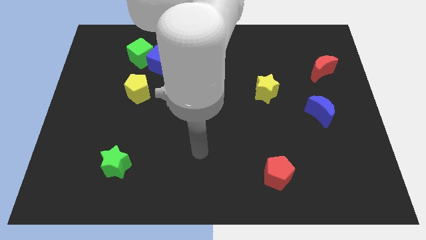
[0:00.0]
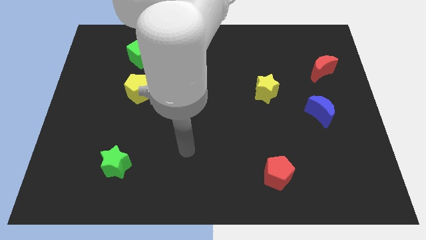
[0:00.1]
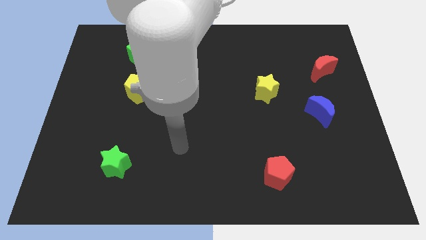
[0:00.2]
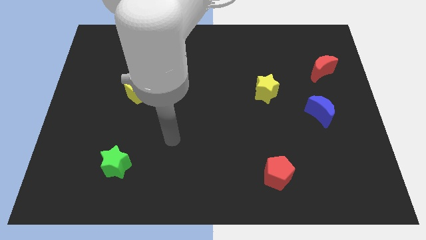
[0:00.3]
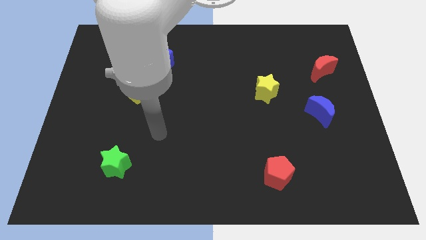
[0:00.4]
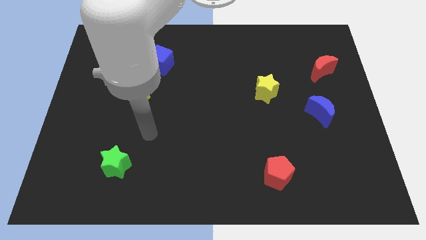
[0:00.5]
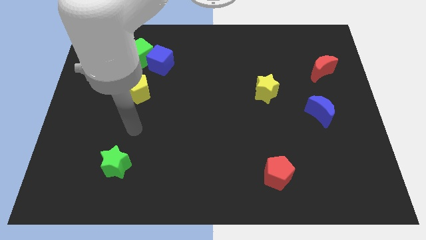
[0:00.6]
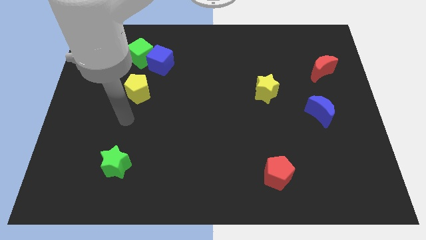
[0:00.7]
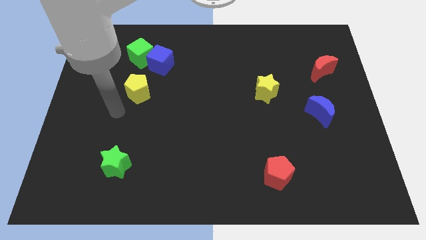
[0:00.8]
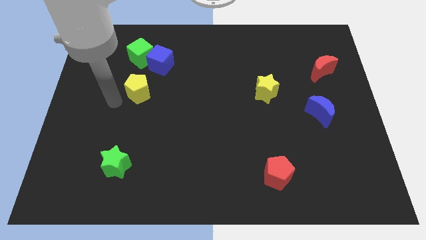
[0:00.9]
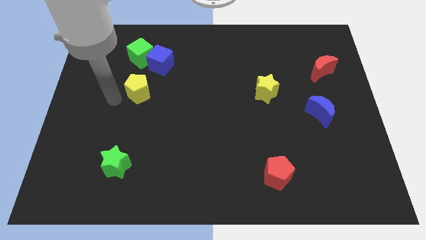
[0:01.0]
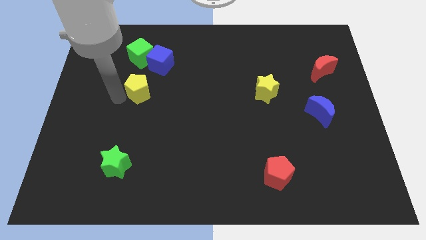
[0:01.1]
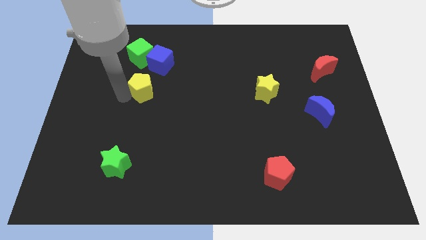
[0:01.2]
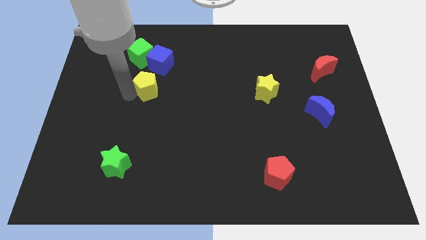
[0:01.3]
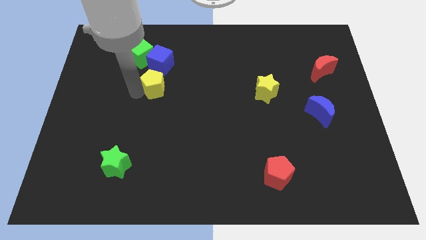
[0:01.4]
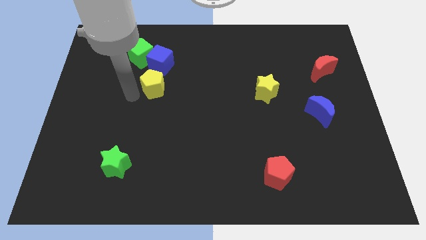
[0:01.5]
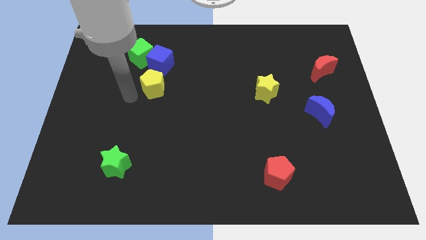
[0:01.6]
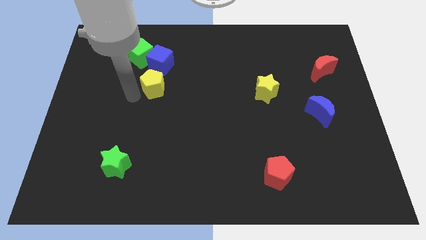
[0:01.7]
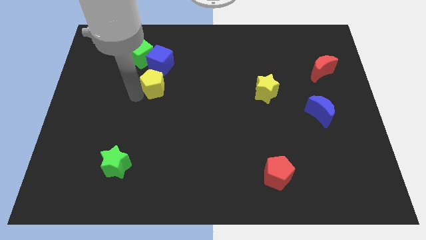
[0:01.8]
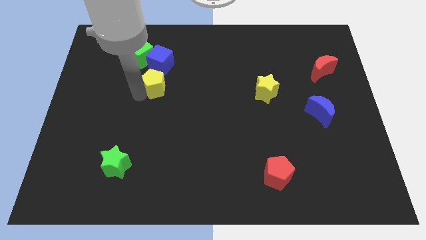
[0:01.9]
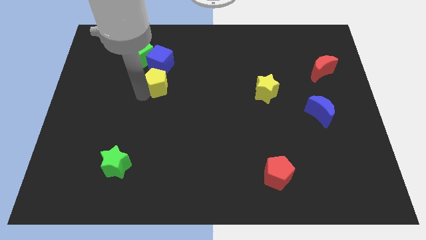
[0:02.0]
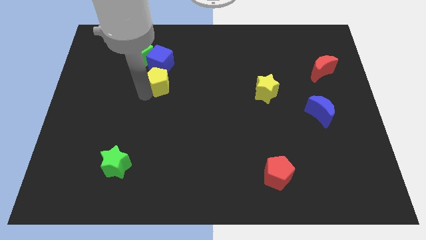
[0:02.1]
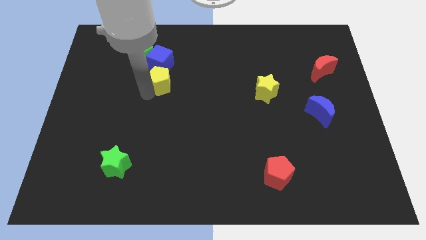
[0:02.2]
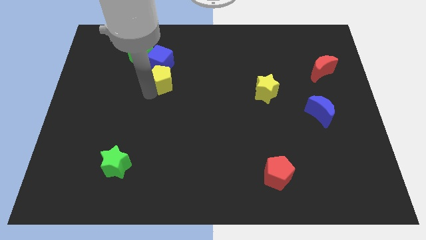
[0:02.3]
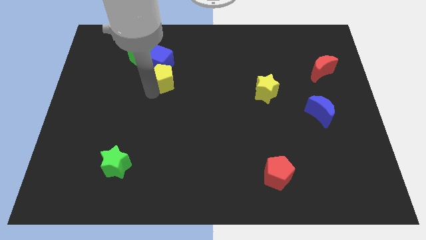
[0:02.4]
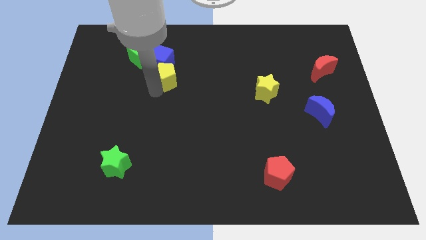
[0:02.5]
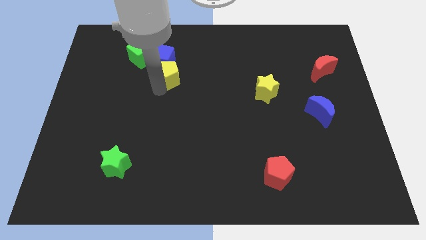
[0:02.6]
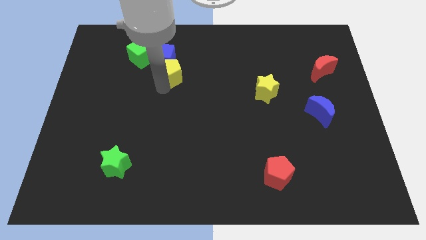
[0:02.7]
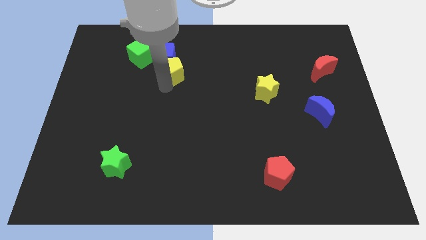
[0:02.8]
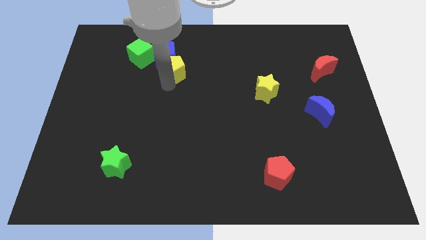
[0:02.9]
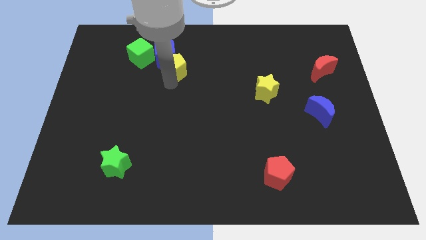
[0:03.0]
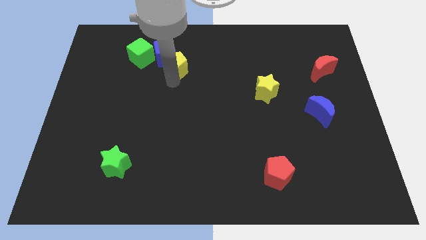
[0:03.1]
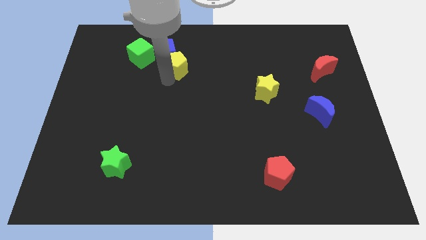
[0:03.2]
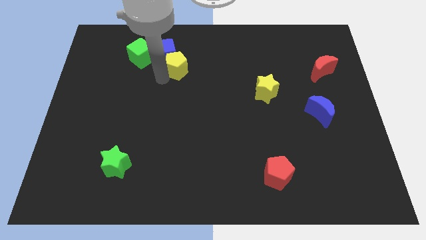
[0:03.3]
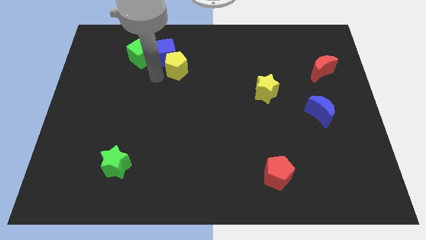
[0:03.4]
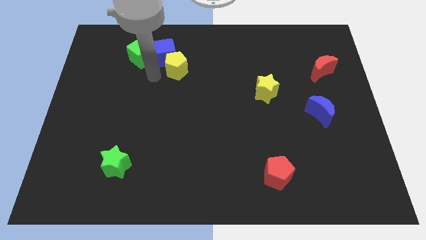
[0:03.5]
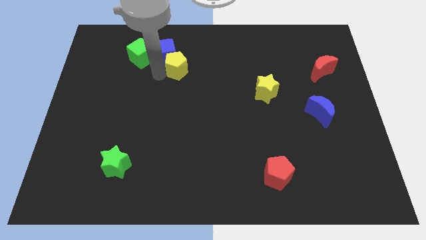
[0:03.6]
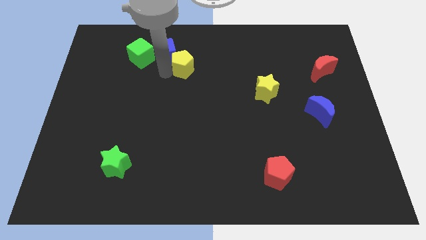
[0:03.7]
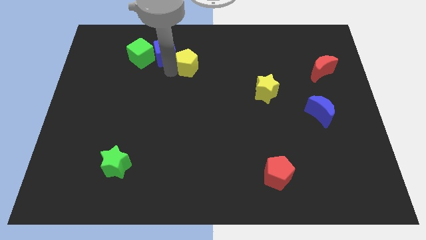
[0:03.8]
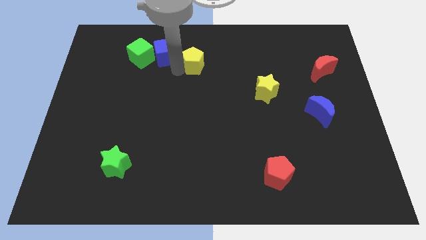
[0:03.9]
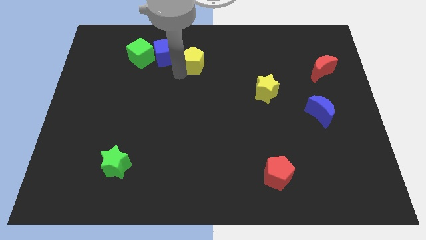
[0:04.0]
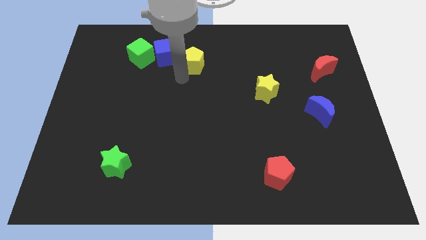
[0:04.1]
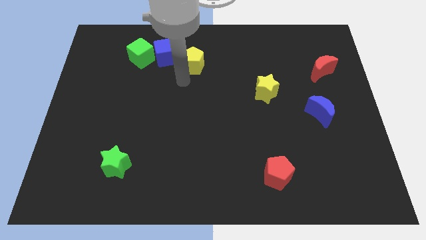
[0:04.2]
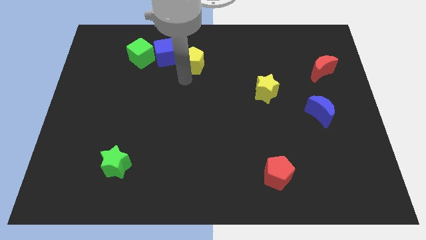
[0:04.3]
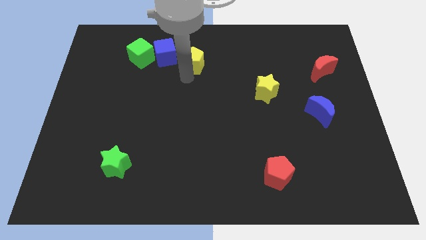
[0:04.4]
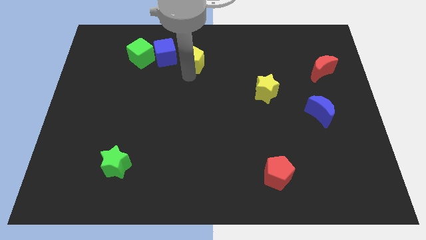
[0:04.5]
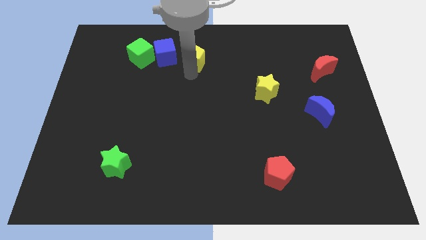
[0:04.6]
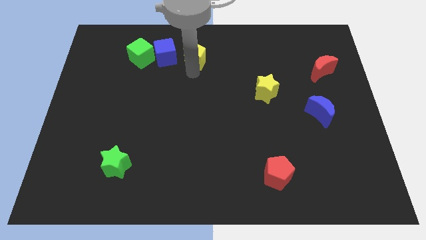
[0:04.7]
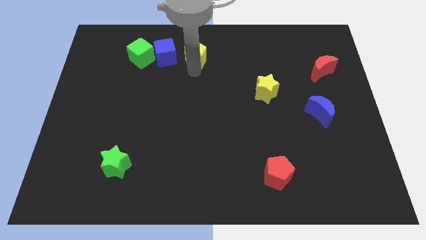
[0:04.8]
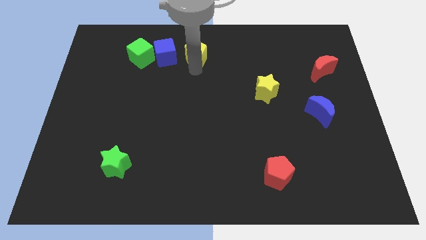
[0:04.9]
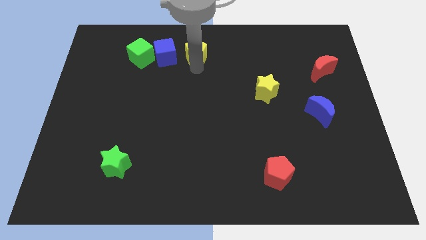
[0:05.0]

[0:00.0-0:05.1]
push the yellow pentagon to the top side

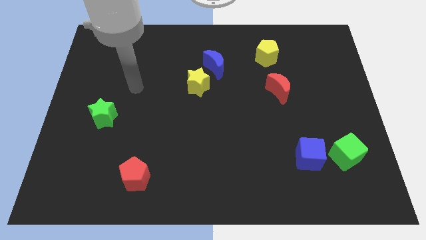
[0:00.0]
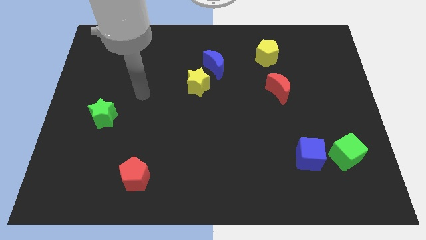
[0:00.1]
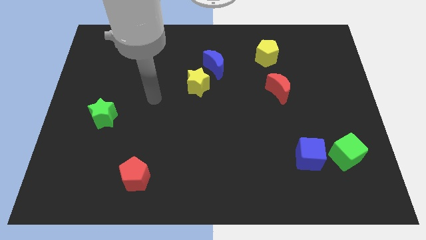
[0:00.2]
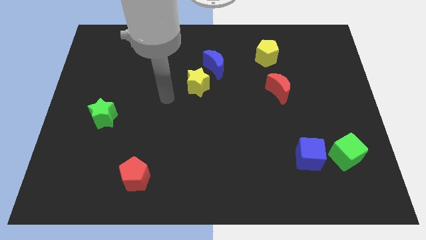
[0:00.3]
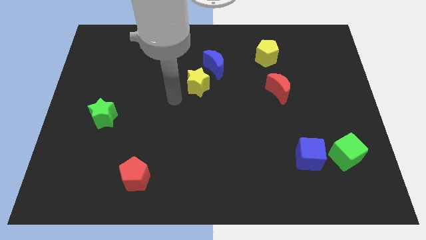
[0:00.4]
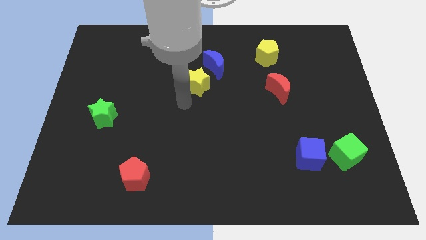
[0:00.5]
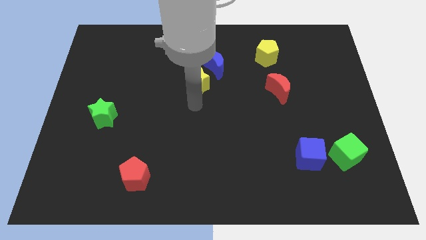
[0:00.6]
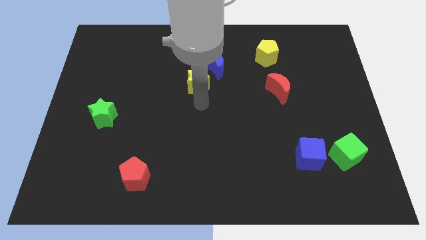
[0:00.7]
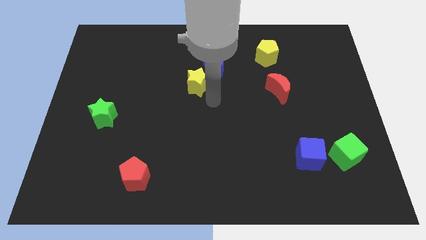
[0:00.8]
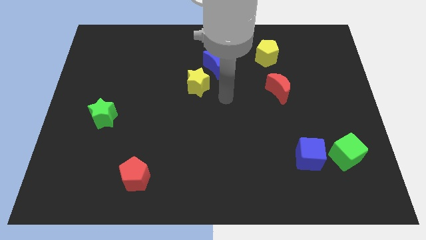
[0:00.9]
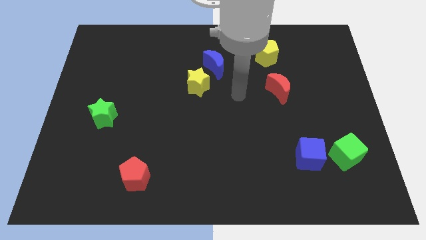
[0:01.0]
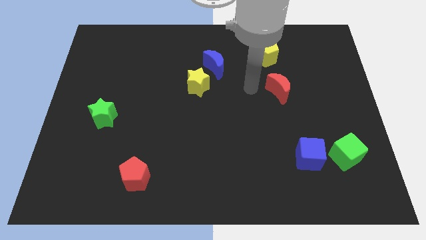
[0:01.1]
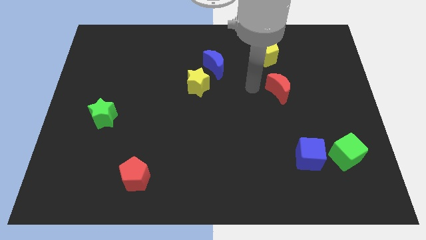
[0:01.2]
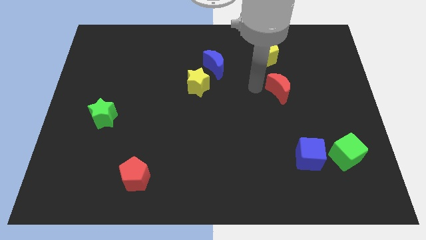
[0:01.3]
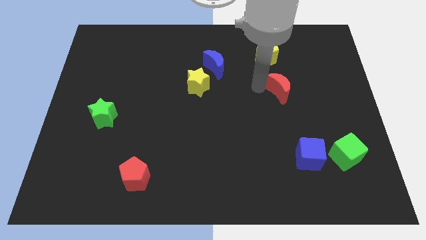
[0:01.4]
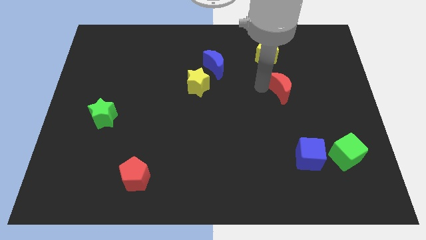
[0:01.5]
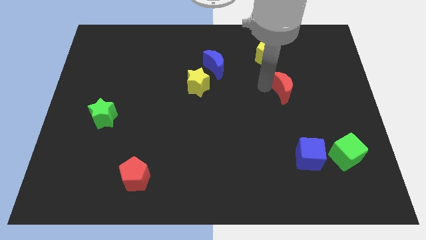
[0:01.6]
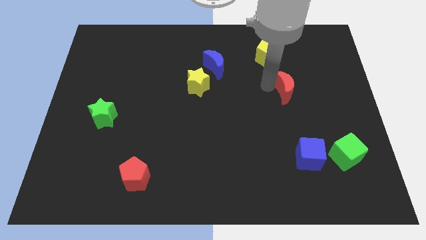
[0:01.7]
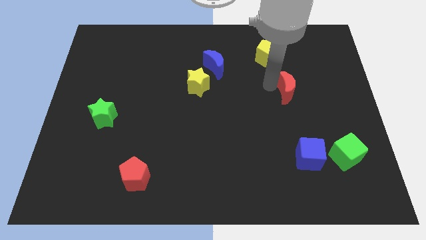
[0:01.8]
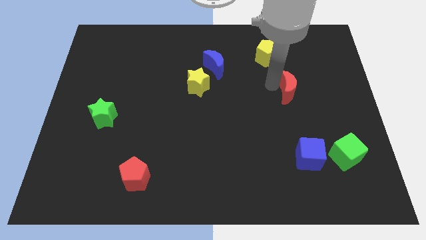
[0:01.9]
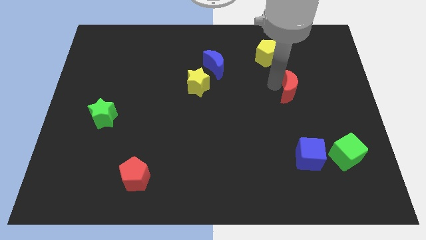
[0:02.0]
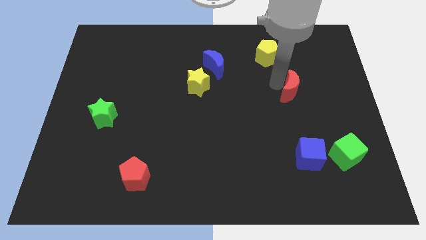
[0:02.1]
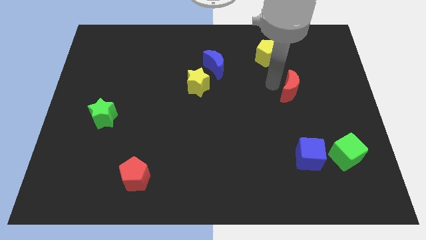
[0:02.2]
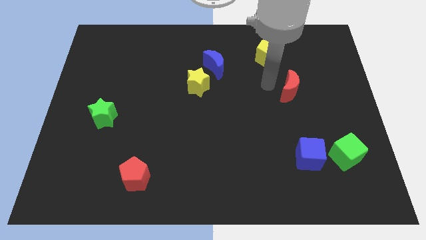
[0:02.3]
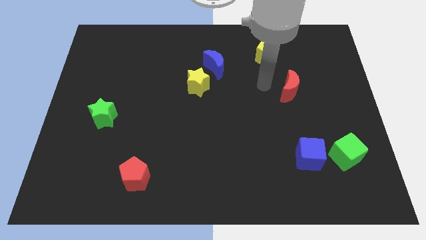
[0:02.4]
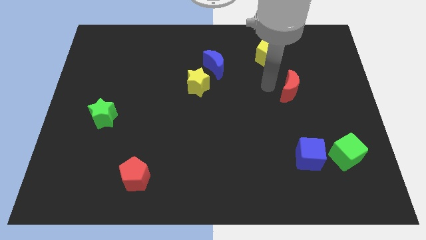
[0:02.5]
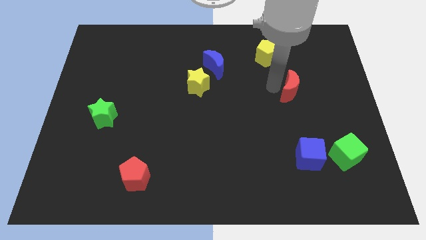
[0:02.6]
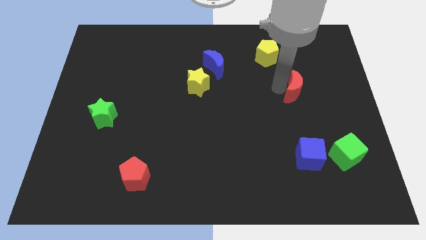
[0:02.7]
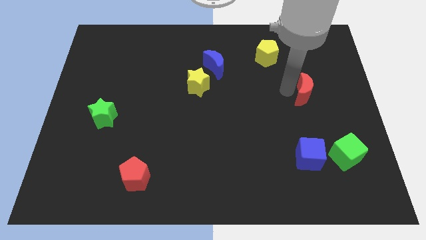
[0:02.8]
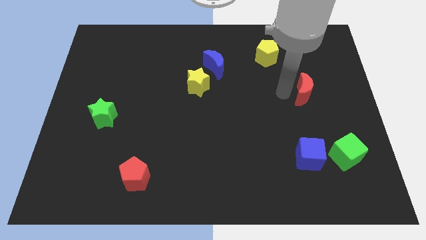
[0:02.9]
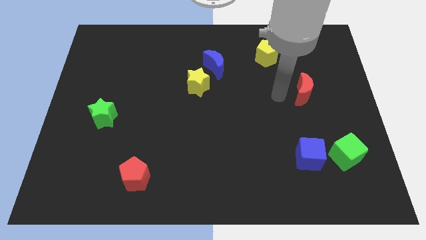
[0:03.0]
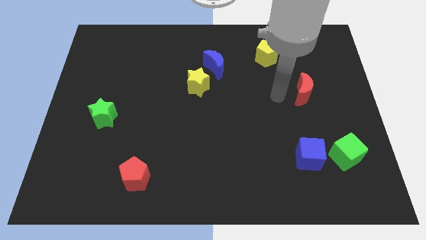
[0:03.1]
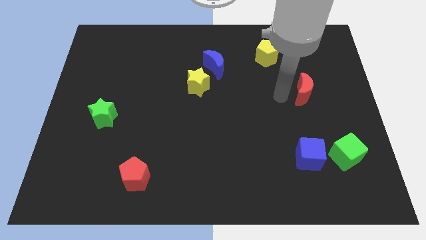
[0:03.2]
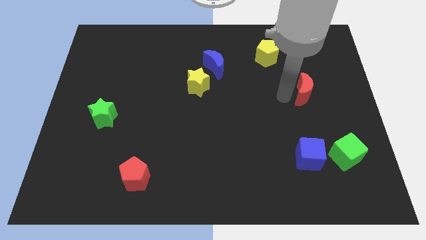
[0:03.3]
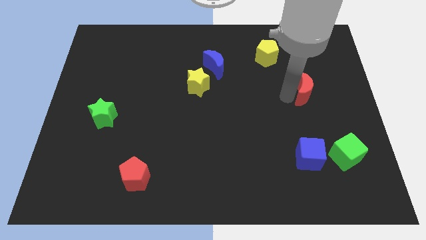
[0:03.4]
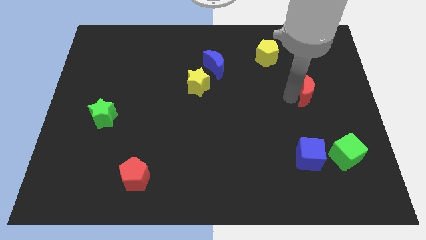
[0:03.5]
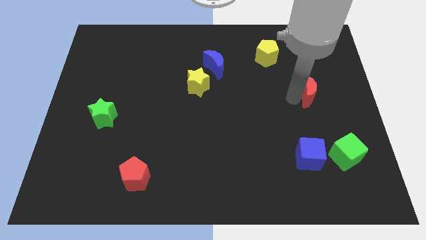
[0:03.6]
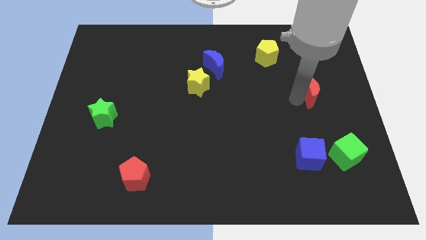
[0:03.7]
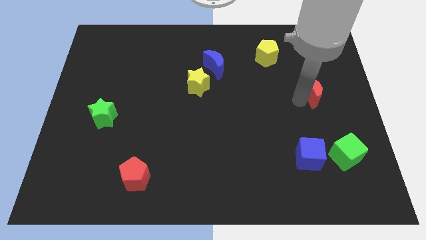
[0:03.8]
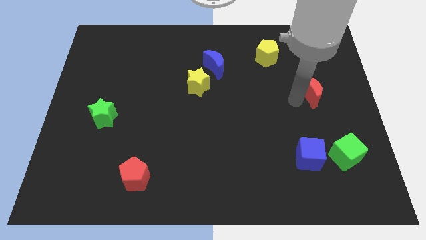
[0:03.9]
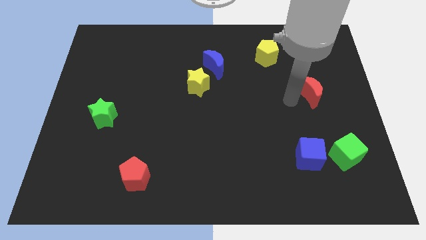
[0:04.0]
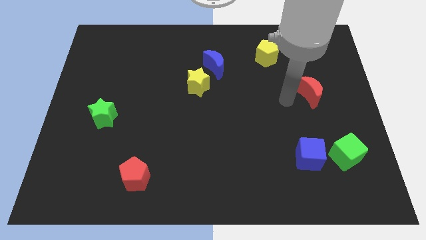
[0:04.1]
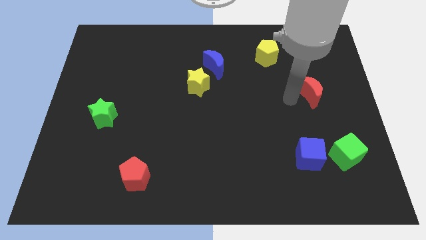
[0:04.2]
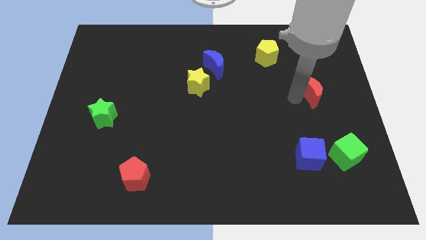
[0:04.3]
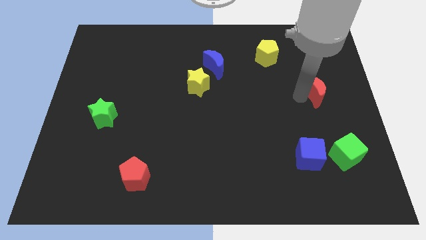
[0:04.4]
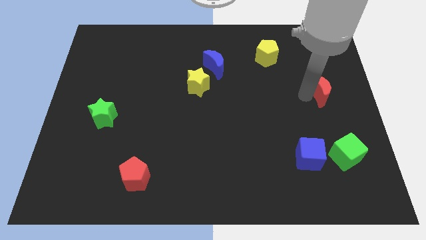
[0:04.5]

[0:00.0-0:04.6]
move the red moon to the center right
